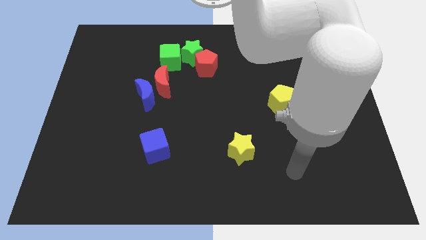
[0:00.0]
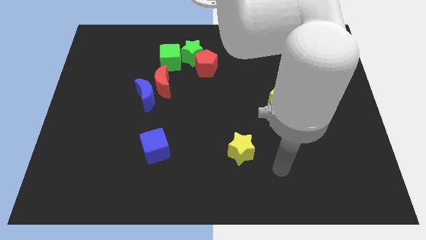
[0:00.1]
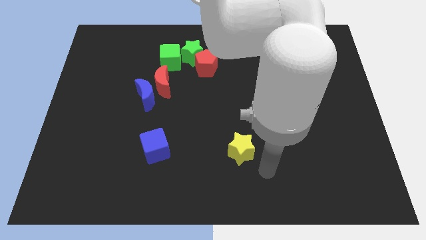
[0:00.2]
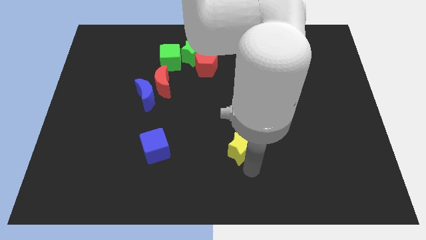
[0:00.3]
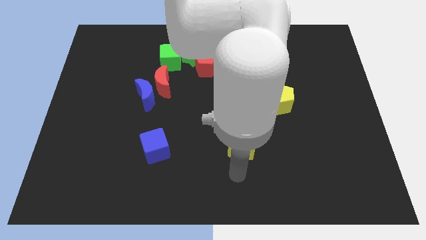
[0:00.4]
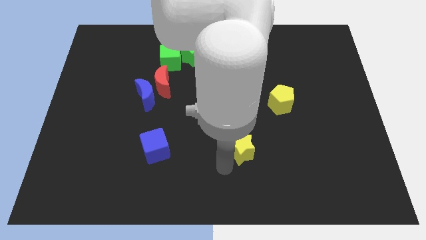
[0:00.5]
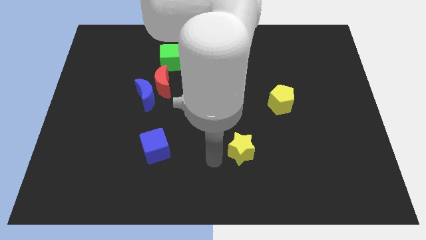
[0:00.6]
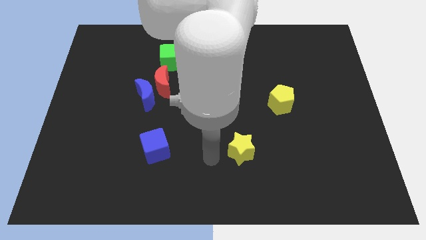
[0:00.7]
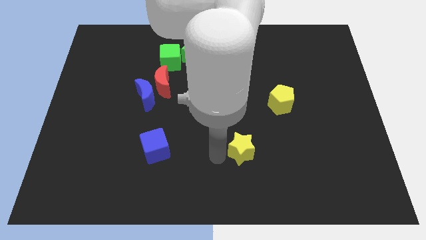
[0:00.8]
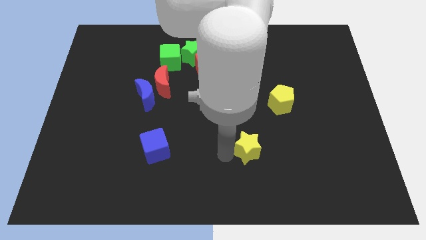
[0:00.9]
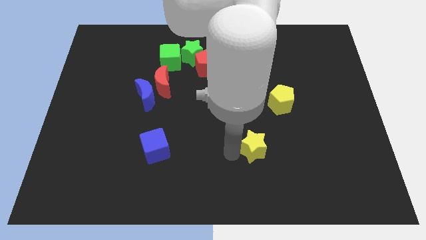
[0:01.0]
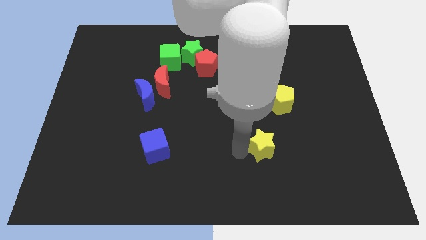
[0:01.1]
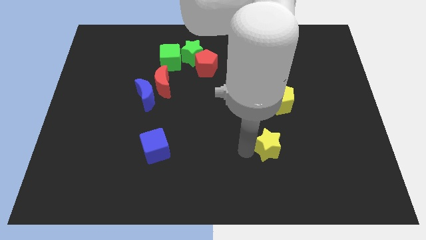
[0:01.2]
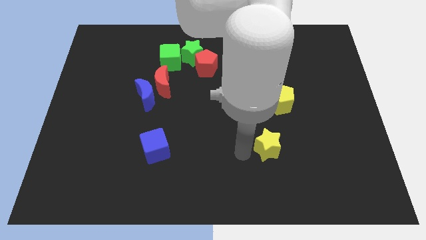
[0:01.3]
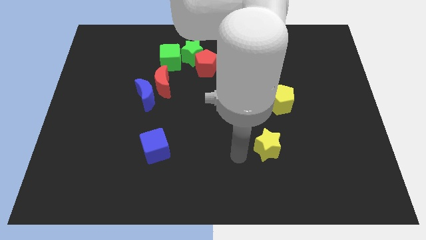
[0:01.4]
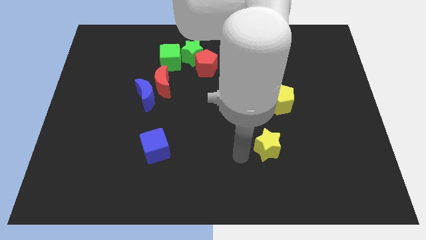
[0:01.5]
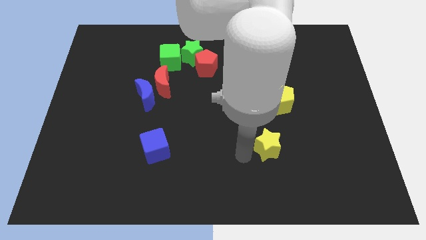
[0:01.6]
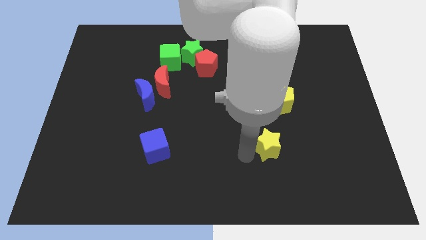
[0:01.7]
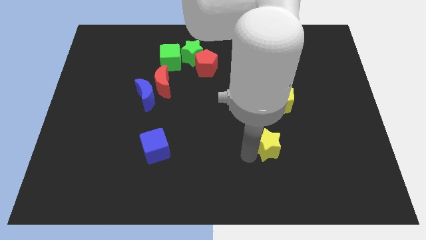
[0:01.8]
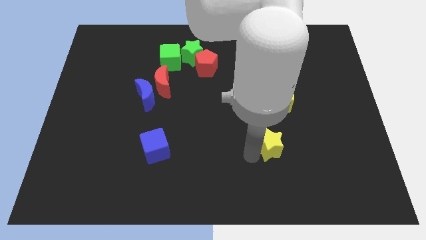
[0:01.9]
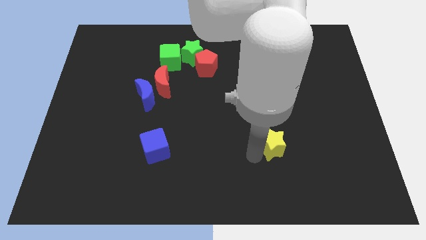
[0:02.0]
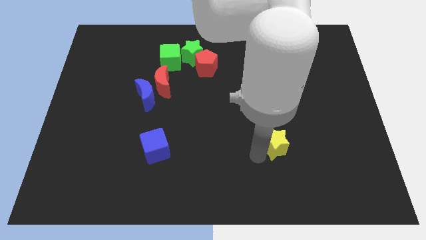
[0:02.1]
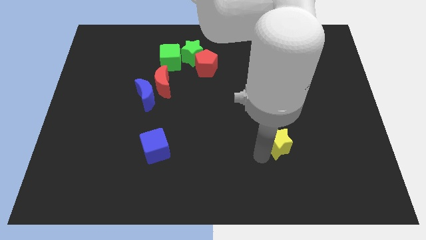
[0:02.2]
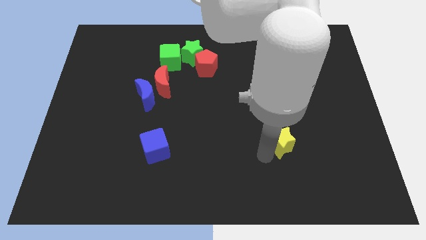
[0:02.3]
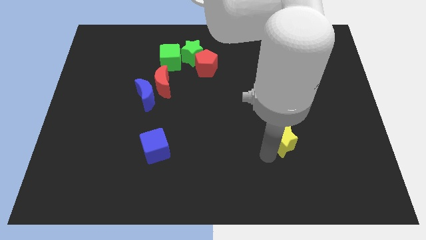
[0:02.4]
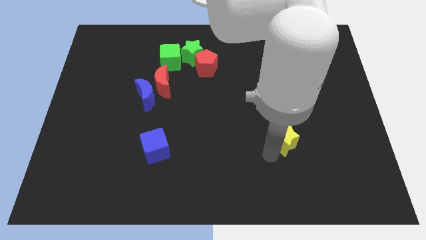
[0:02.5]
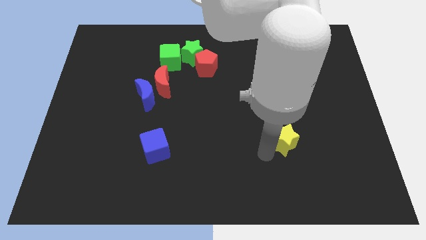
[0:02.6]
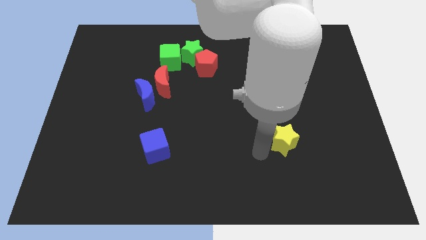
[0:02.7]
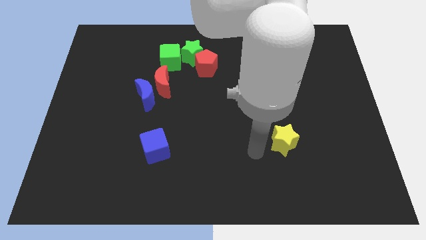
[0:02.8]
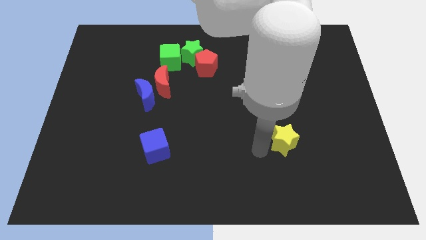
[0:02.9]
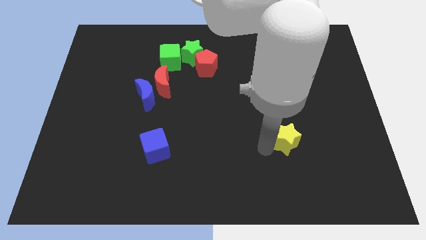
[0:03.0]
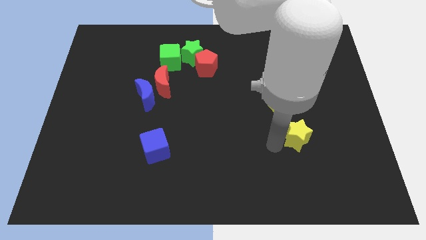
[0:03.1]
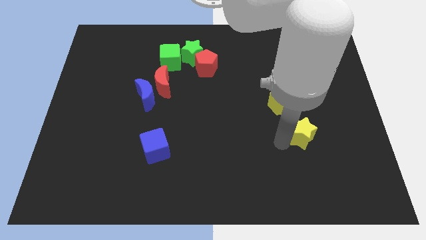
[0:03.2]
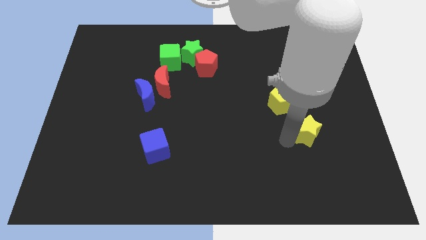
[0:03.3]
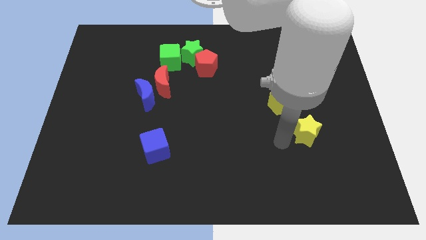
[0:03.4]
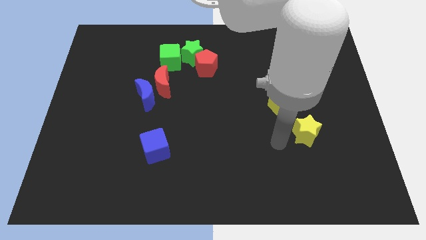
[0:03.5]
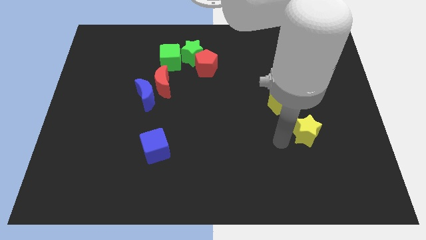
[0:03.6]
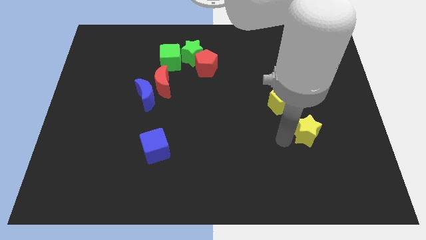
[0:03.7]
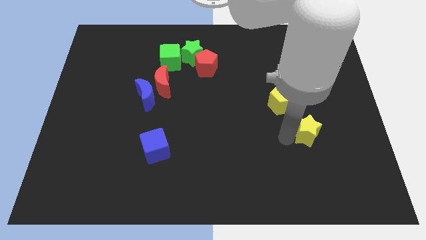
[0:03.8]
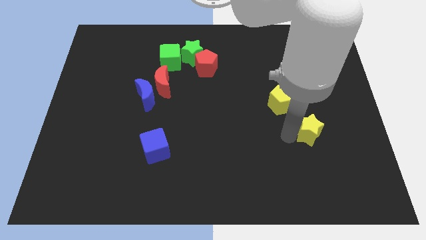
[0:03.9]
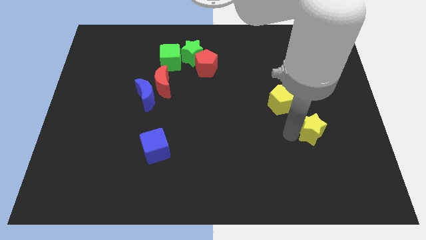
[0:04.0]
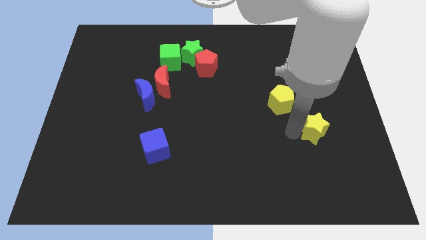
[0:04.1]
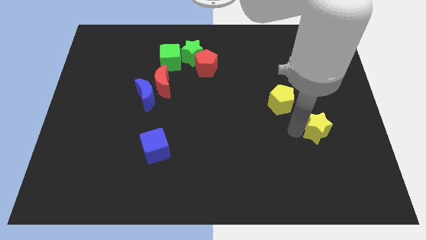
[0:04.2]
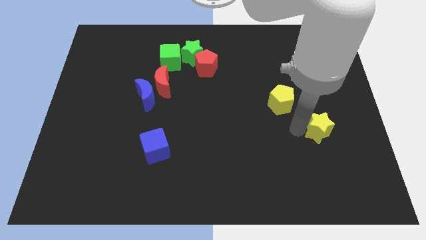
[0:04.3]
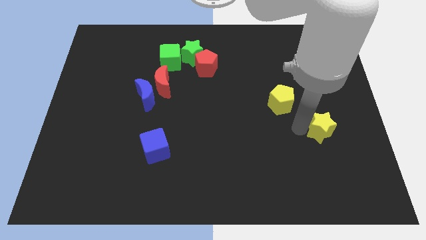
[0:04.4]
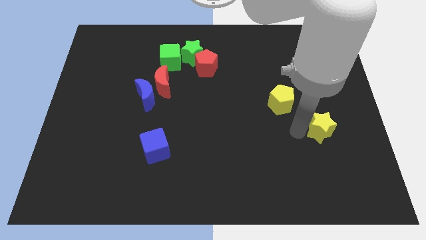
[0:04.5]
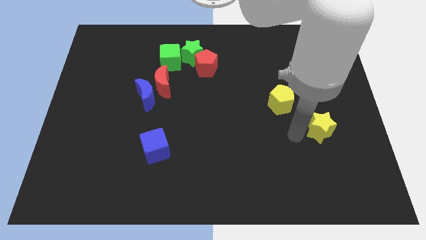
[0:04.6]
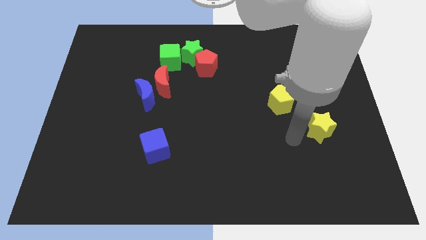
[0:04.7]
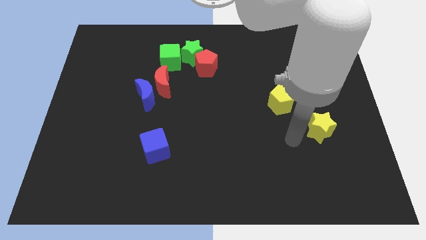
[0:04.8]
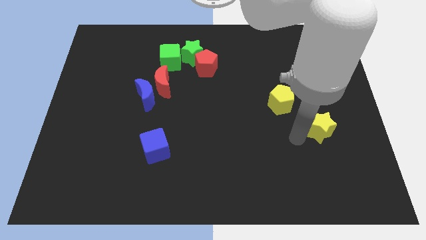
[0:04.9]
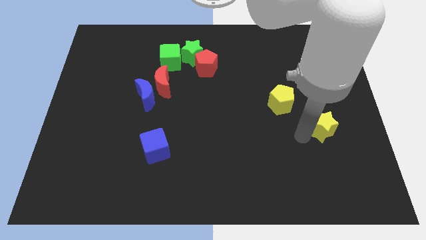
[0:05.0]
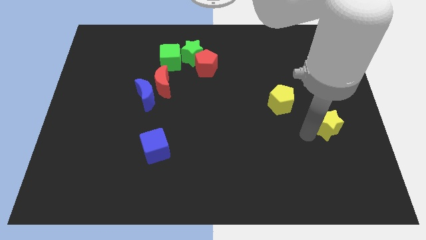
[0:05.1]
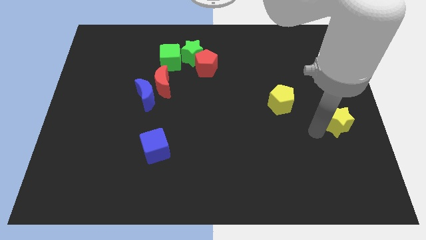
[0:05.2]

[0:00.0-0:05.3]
slide the yellow star to the right side
